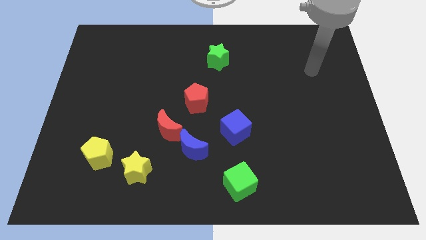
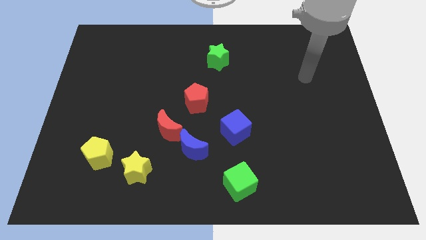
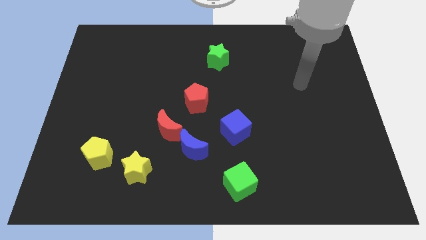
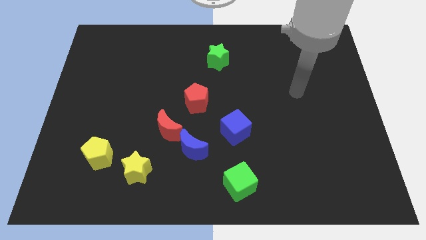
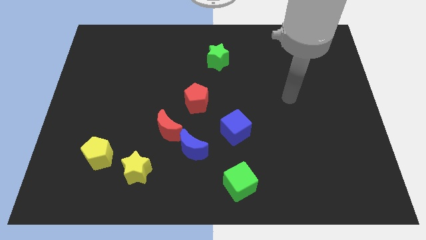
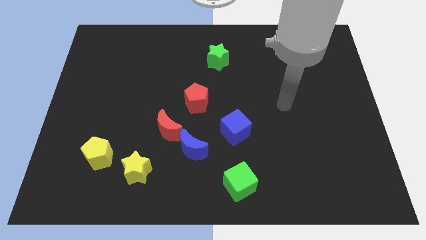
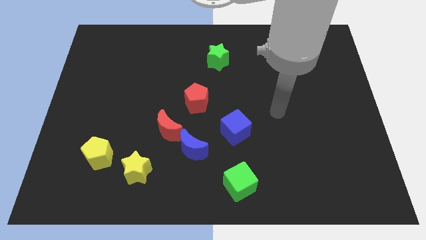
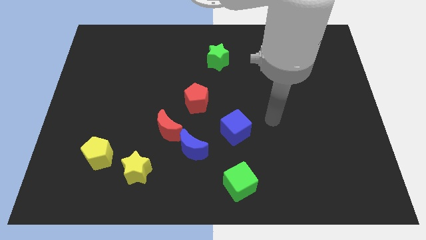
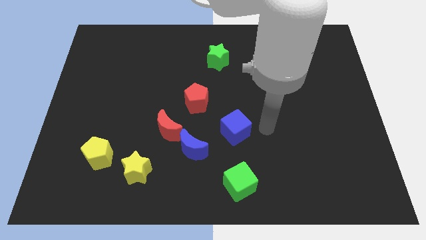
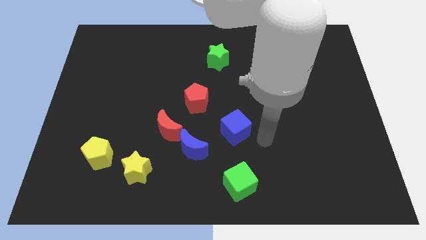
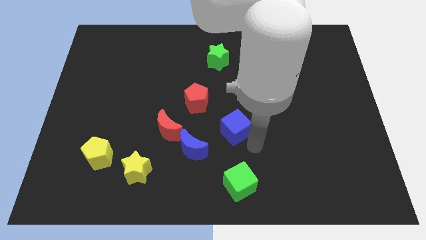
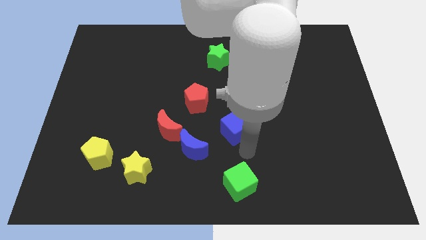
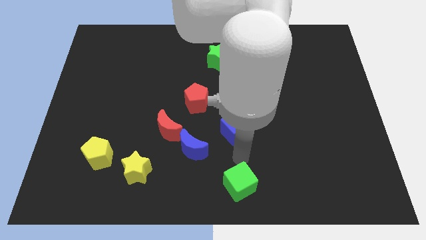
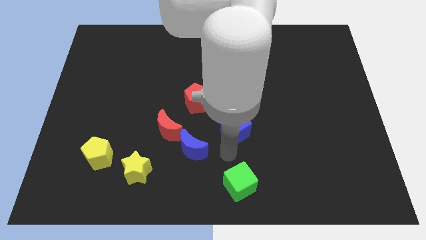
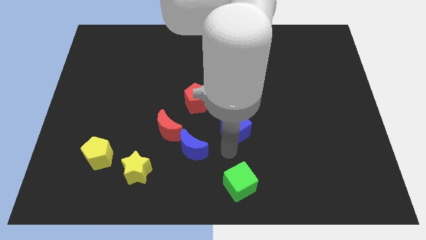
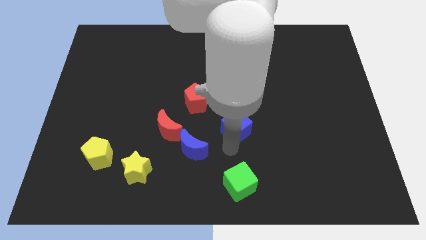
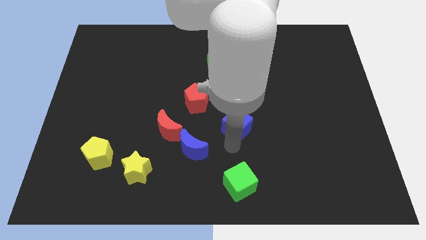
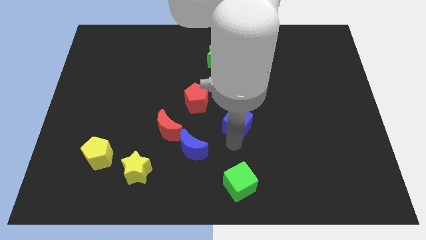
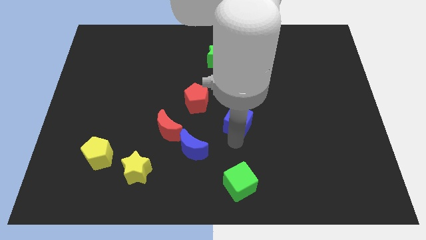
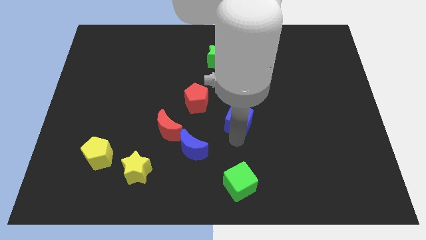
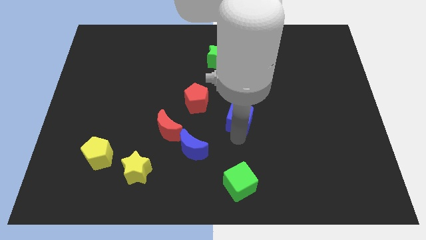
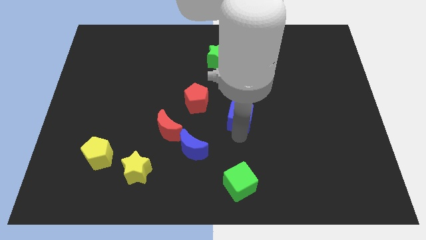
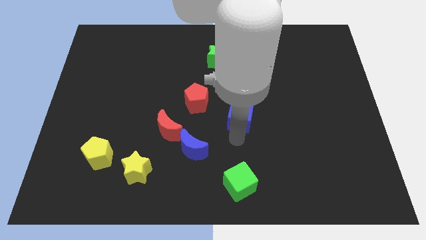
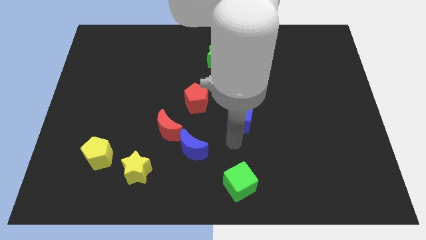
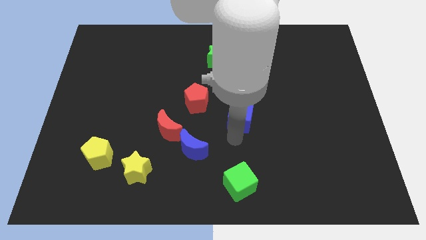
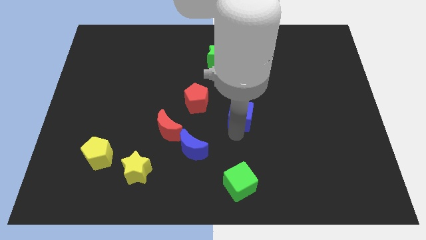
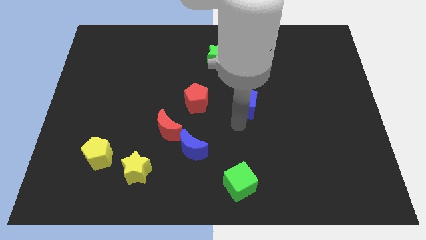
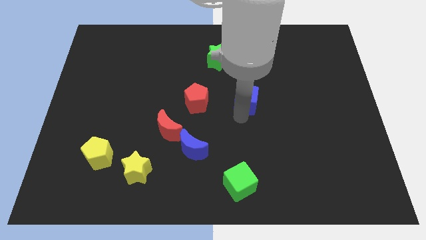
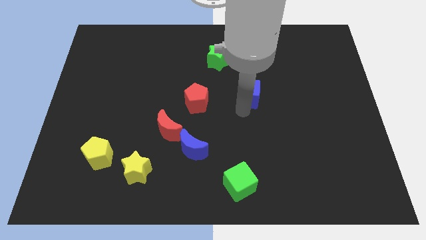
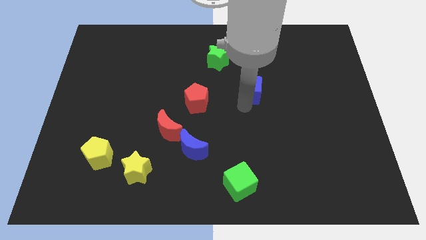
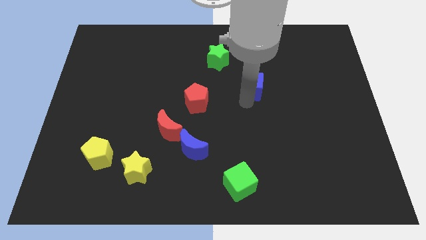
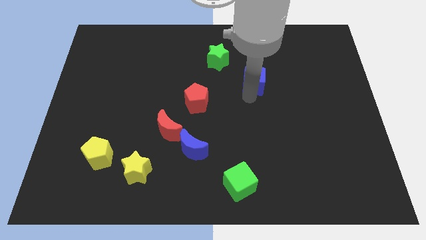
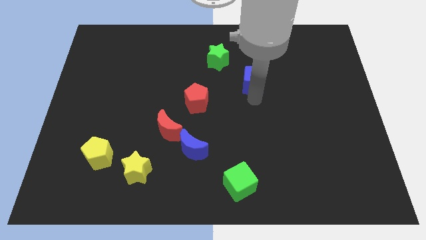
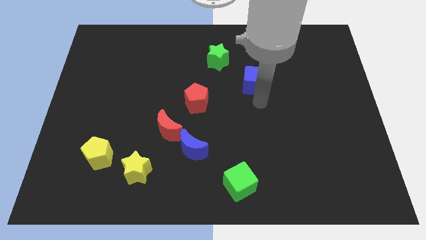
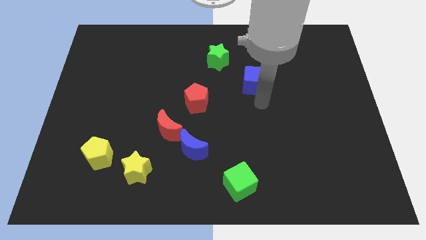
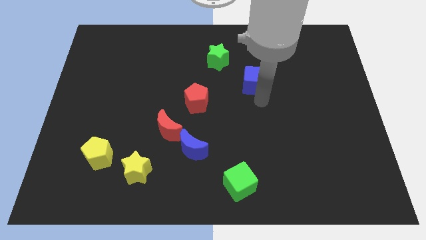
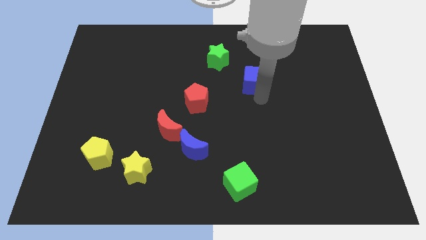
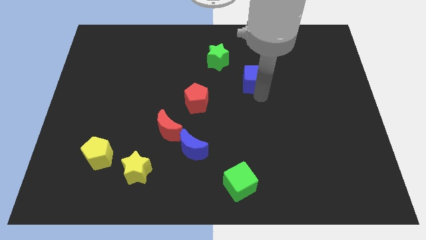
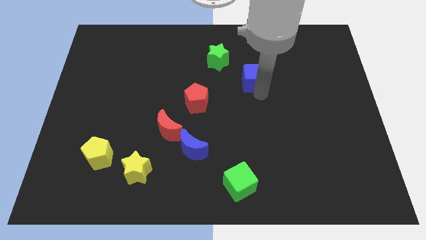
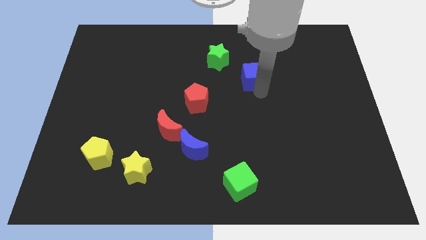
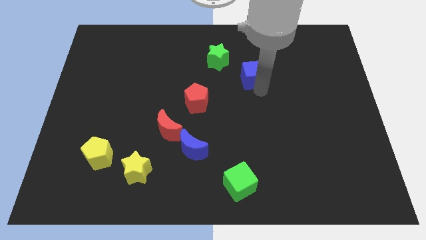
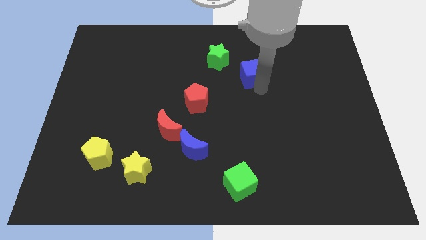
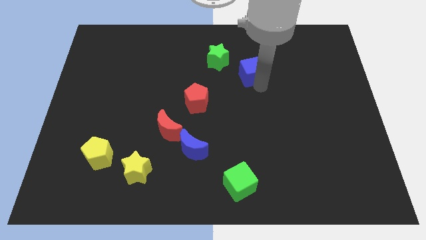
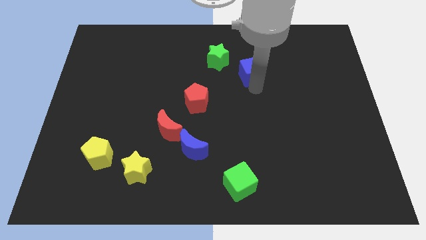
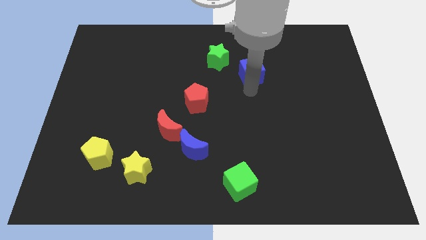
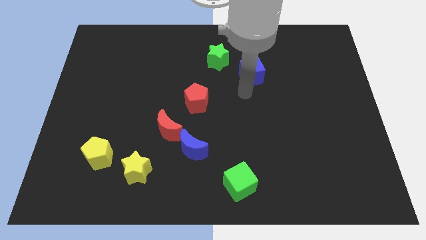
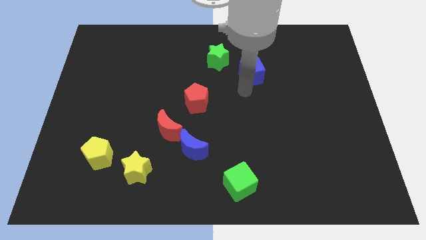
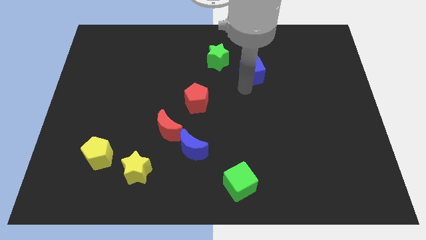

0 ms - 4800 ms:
move the blue cube right of the green star

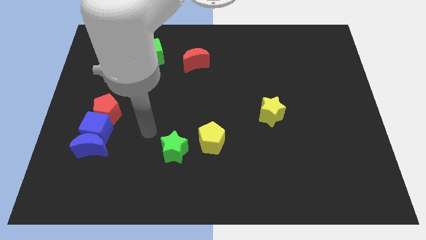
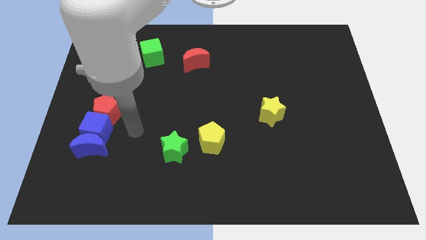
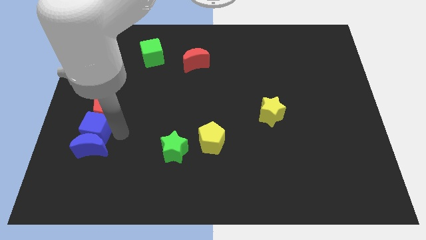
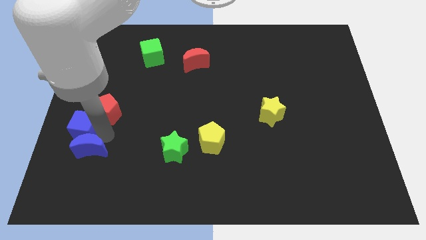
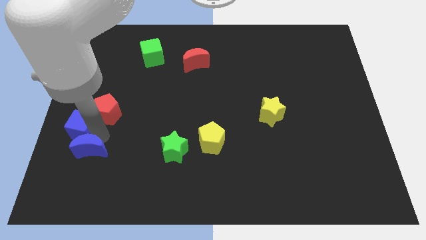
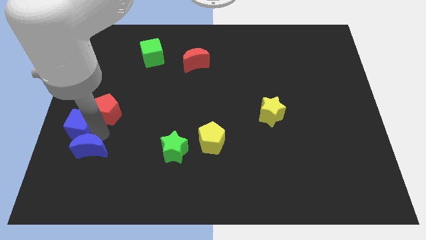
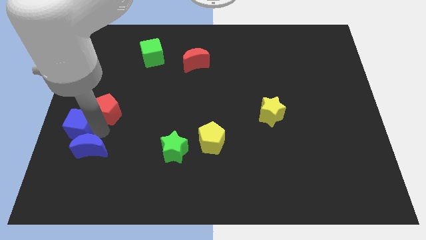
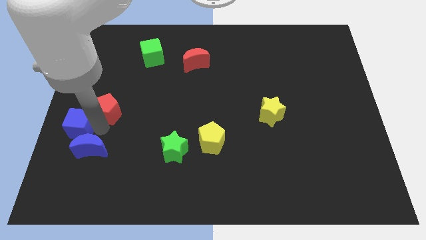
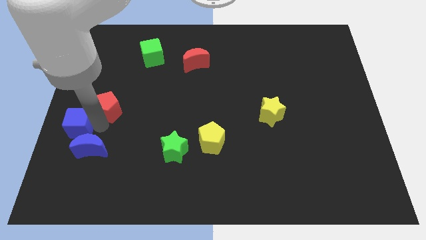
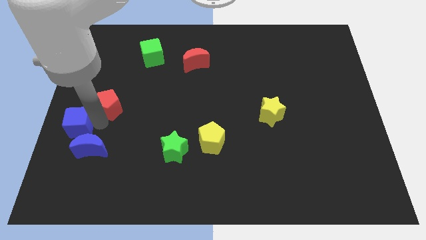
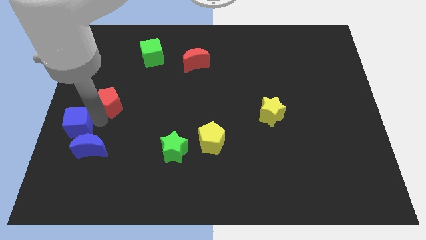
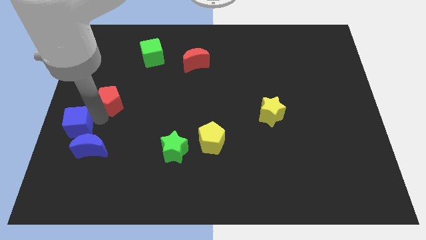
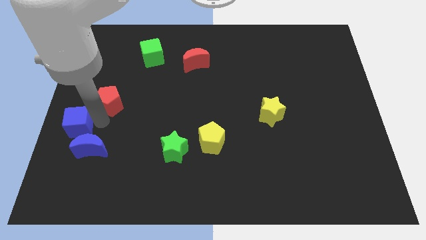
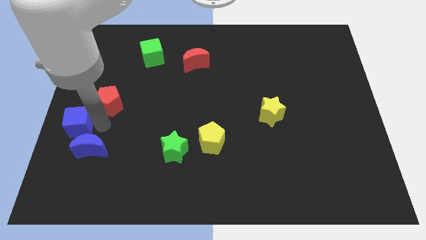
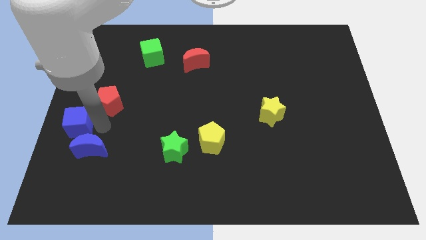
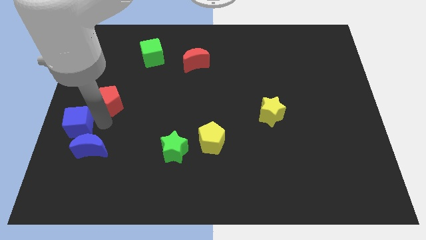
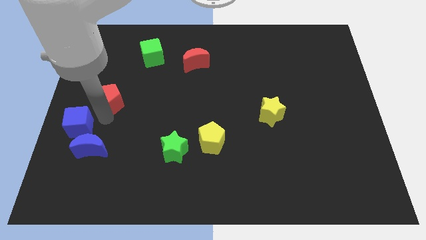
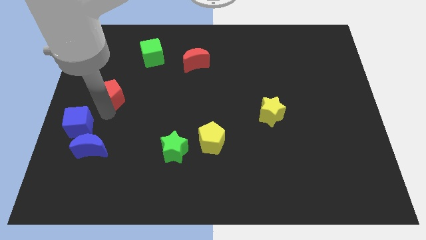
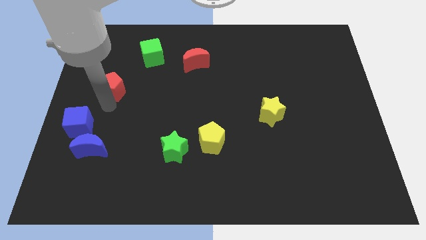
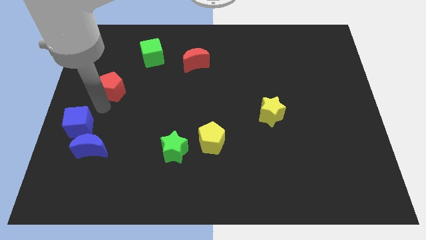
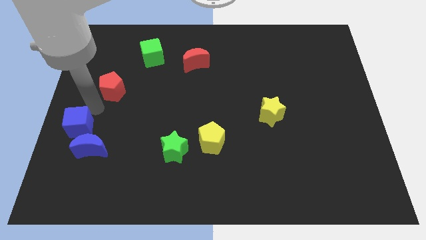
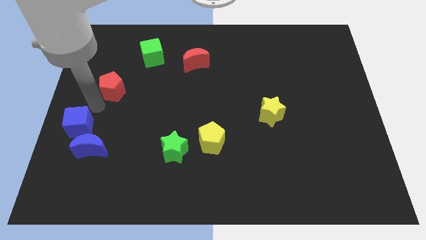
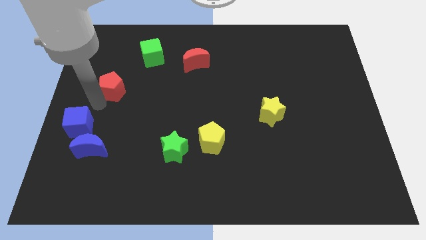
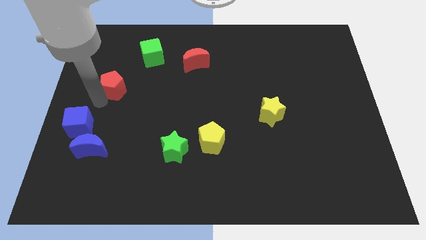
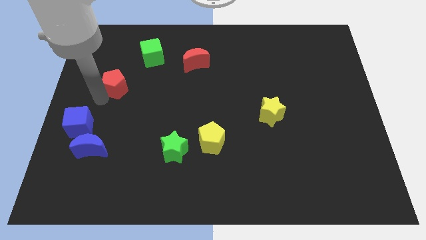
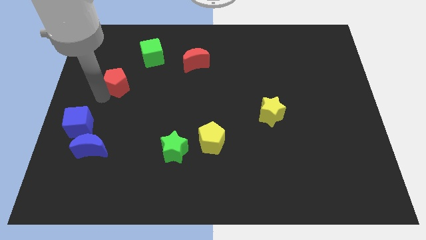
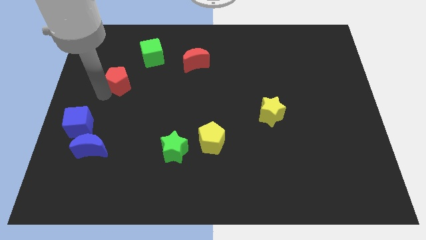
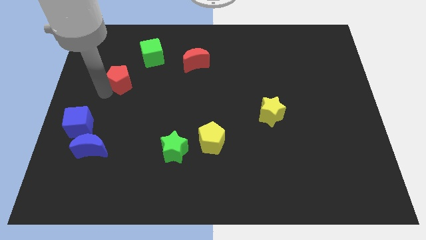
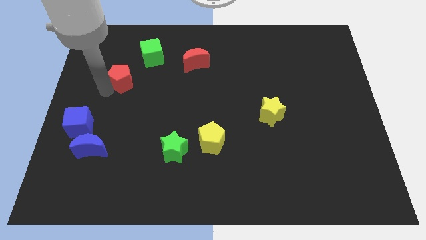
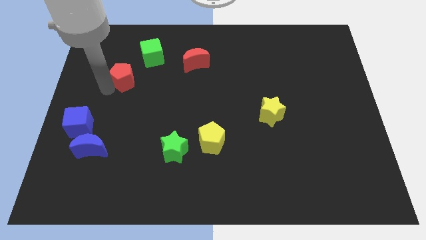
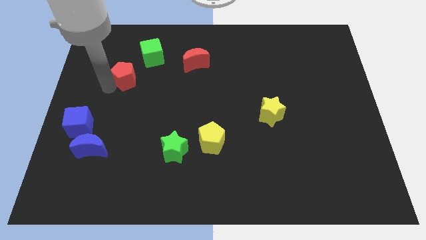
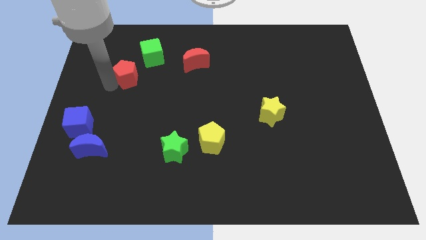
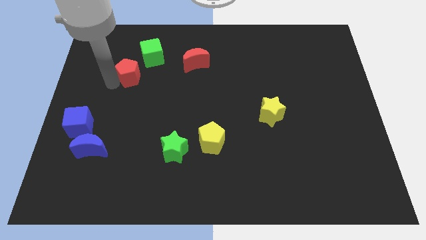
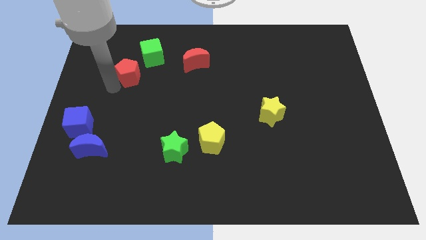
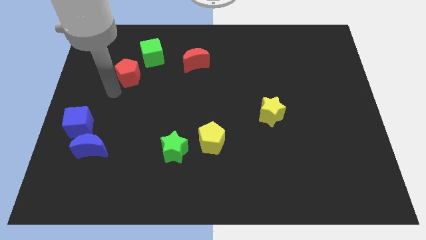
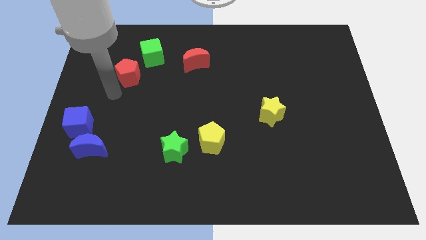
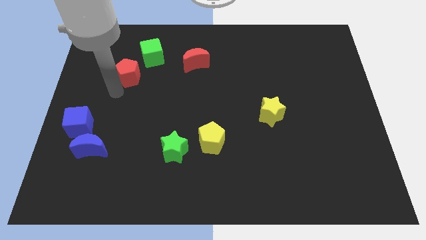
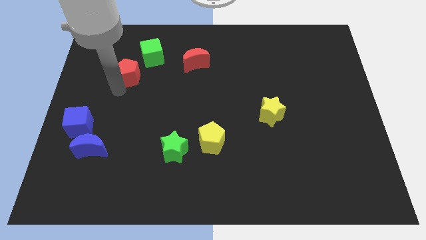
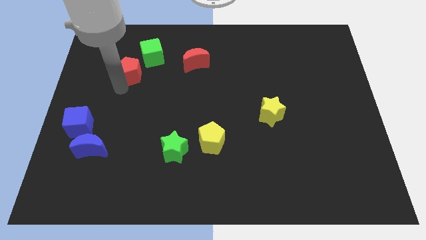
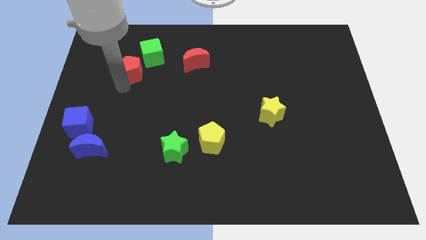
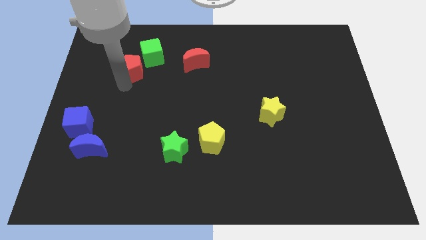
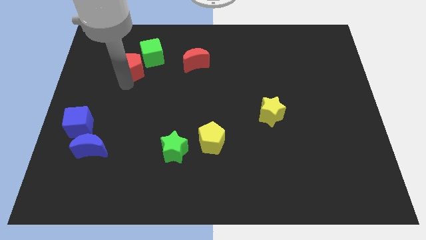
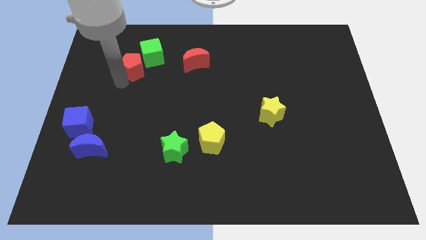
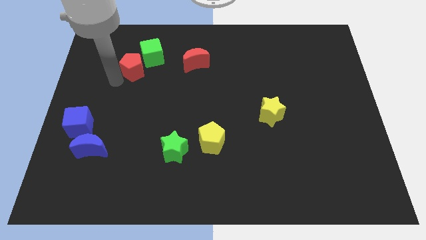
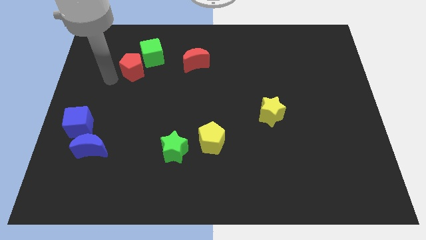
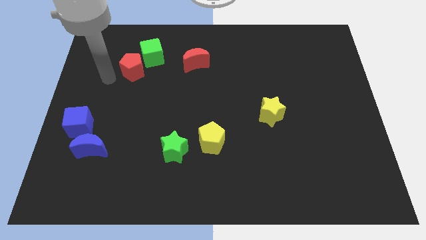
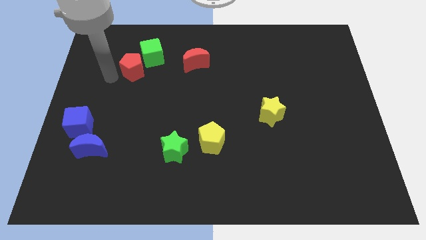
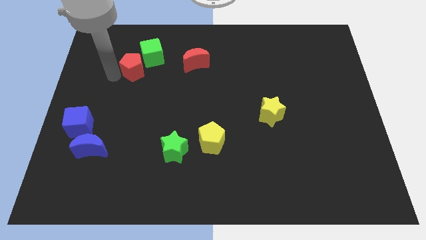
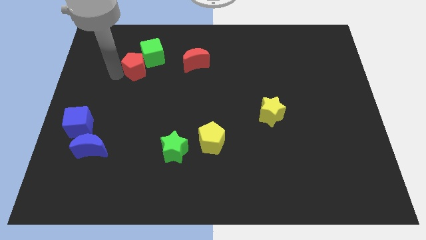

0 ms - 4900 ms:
put the red pentagon just left of the red moon
